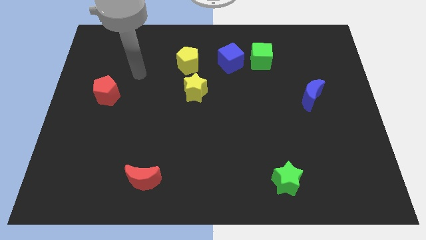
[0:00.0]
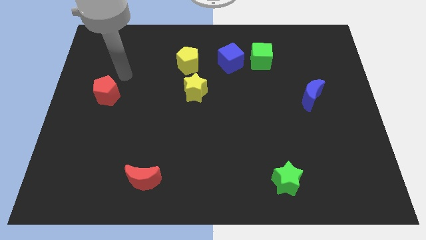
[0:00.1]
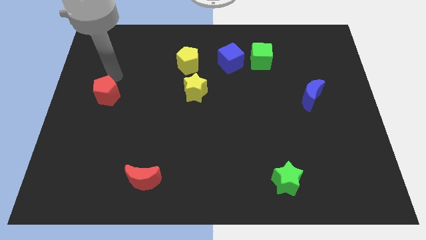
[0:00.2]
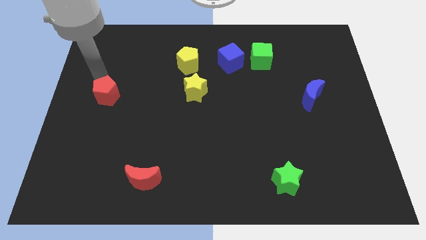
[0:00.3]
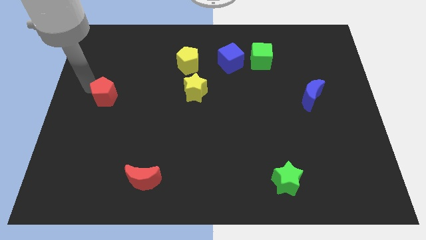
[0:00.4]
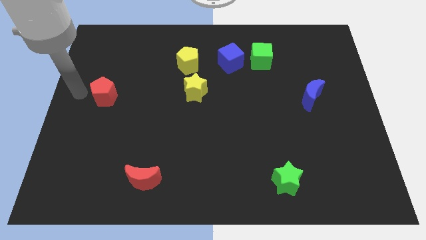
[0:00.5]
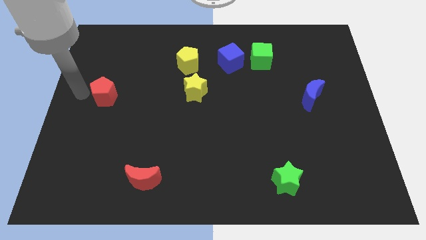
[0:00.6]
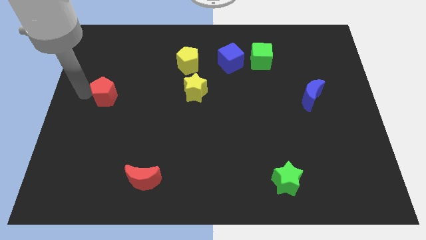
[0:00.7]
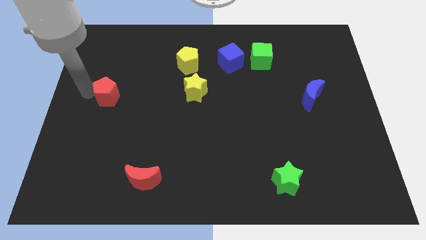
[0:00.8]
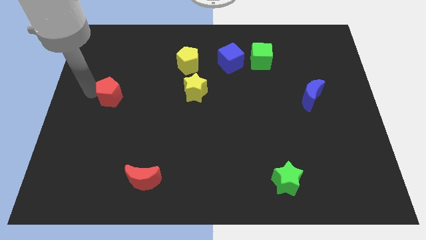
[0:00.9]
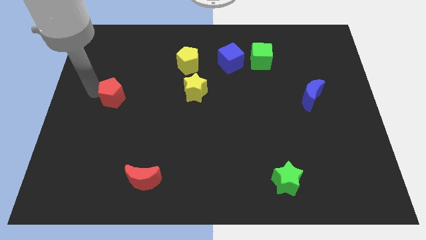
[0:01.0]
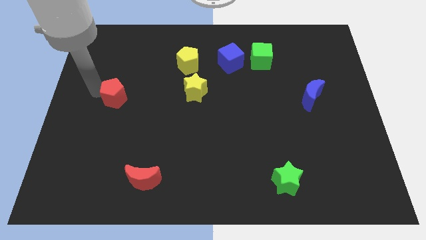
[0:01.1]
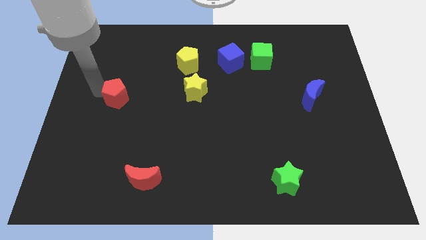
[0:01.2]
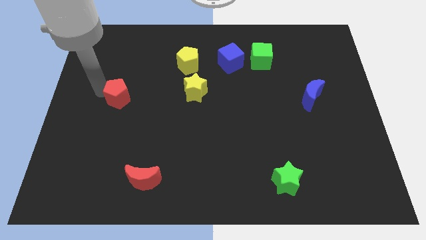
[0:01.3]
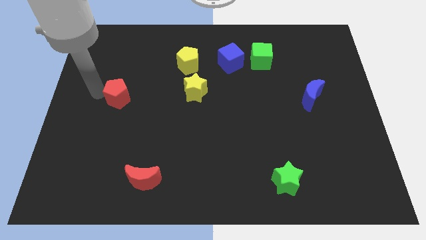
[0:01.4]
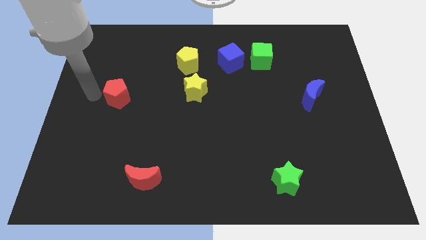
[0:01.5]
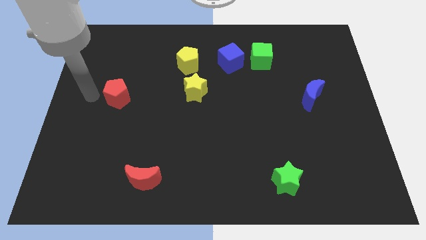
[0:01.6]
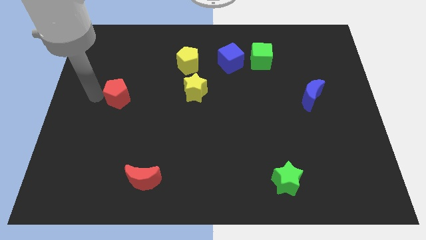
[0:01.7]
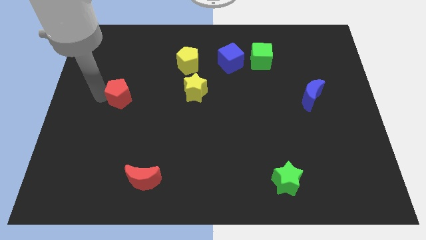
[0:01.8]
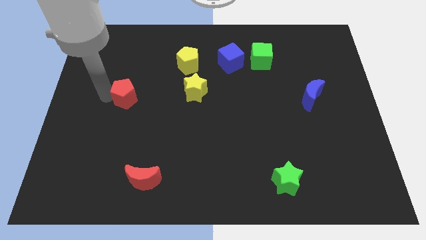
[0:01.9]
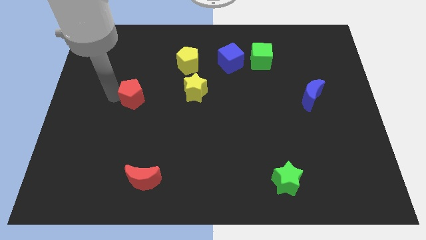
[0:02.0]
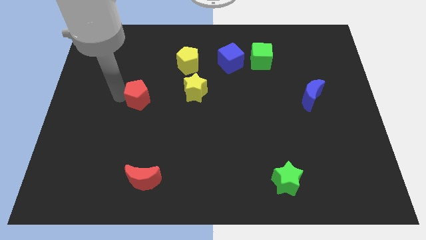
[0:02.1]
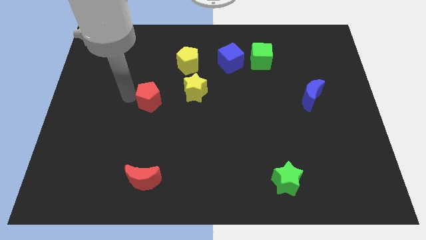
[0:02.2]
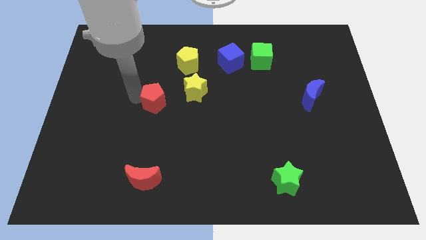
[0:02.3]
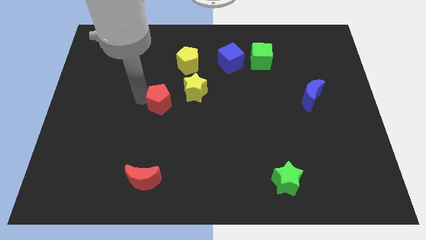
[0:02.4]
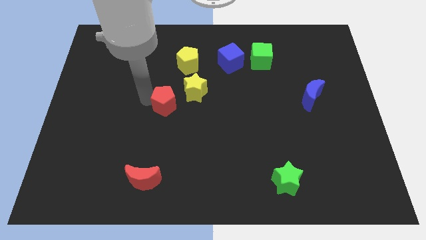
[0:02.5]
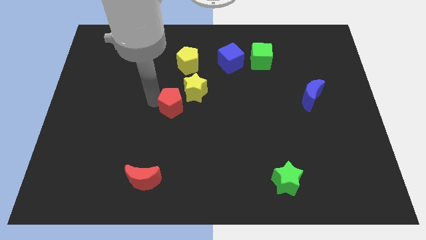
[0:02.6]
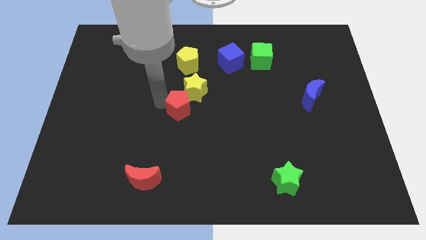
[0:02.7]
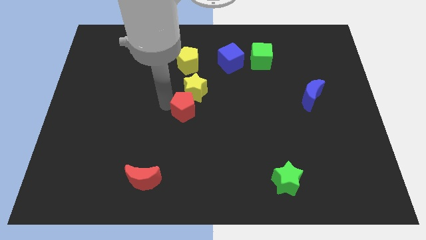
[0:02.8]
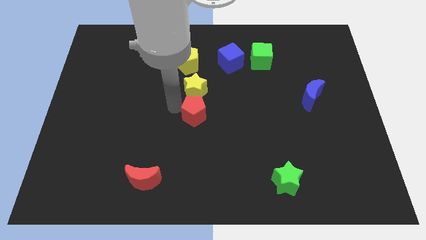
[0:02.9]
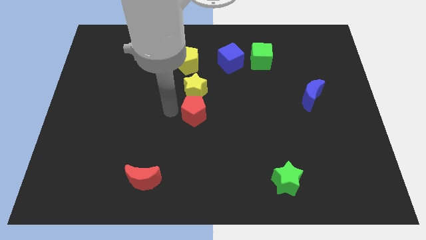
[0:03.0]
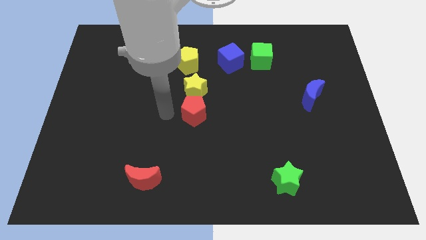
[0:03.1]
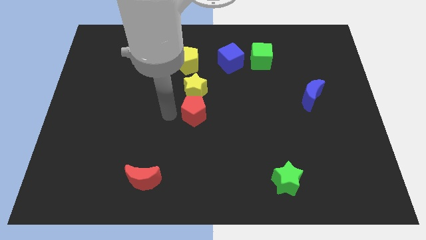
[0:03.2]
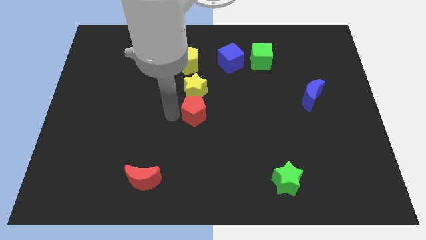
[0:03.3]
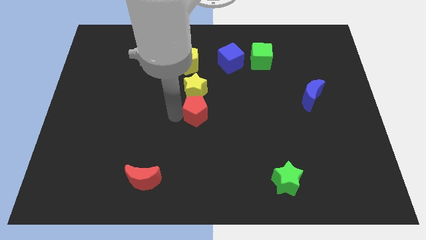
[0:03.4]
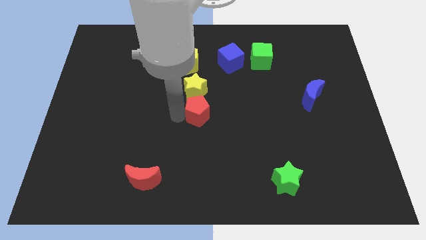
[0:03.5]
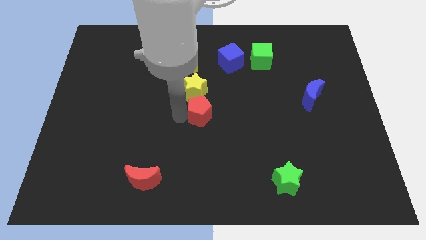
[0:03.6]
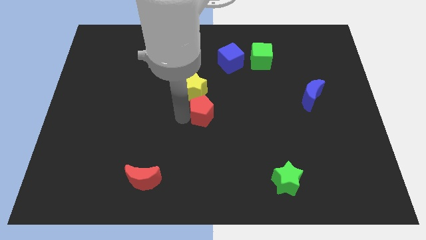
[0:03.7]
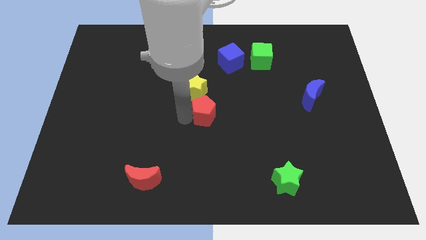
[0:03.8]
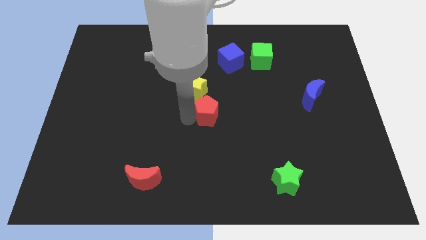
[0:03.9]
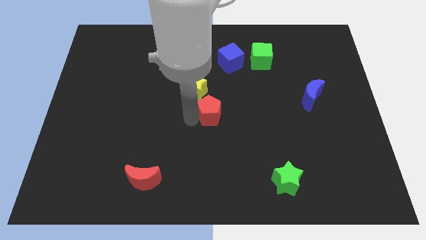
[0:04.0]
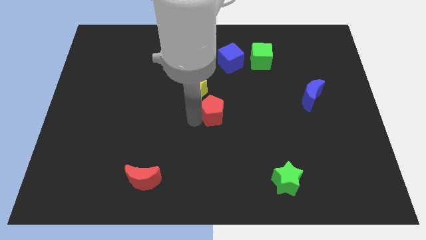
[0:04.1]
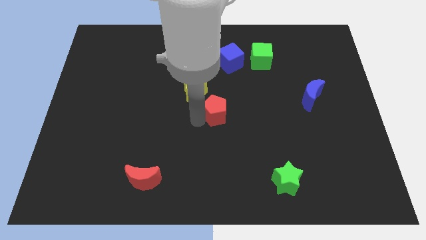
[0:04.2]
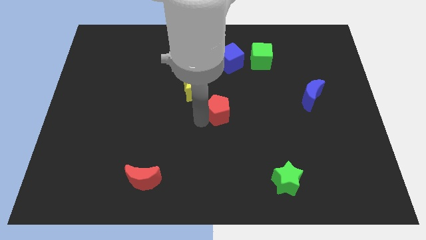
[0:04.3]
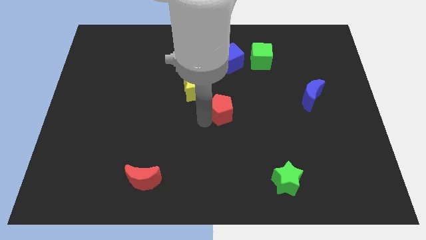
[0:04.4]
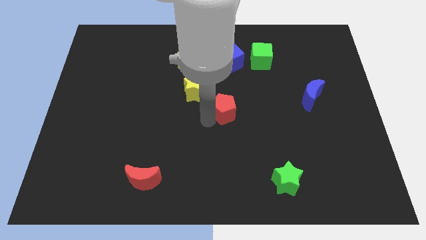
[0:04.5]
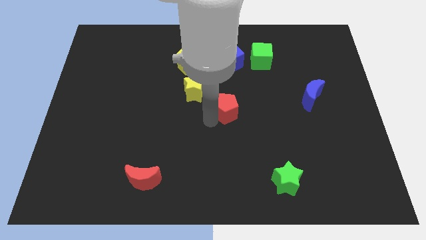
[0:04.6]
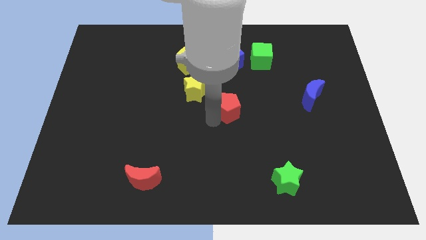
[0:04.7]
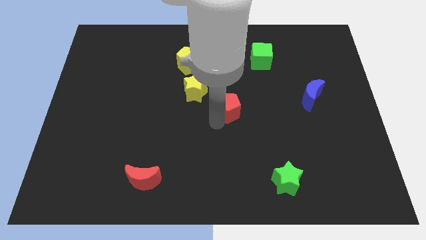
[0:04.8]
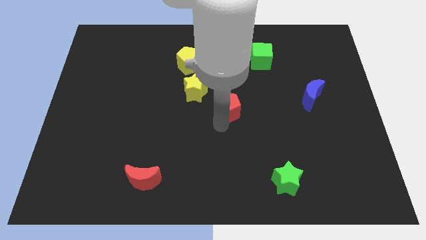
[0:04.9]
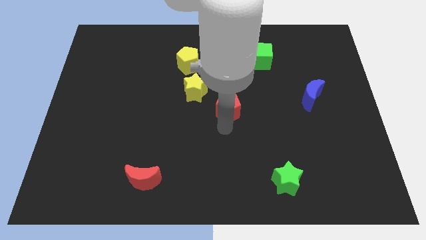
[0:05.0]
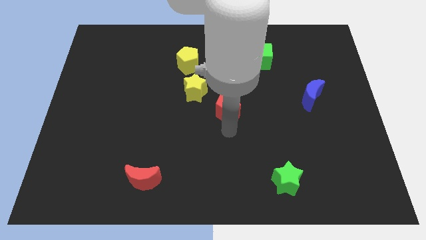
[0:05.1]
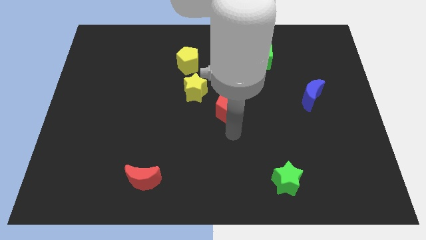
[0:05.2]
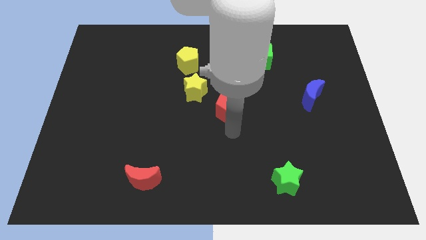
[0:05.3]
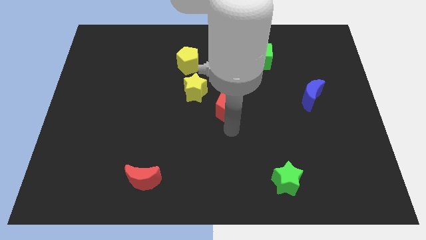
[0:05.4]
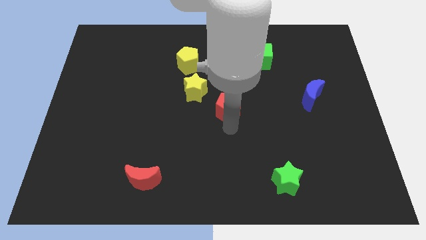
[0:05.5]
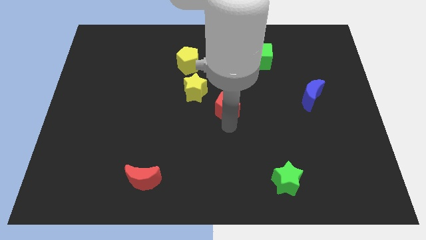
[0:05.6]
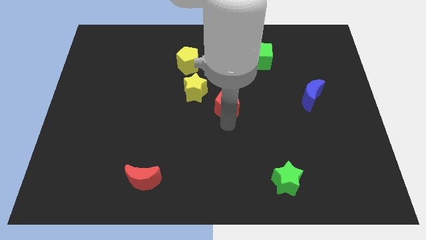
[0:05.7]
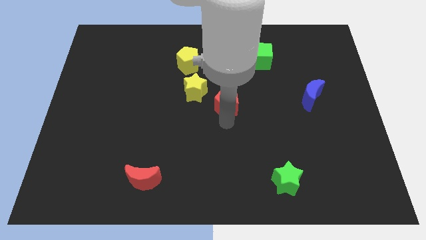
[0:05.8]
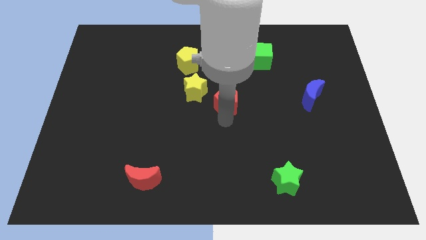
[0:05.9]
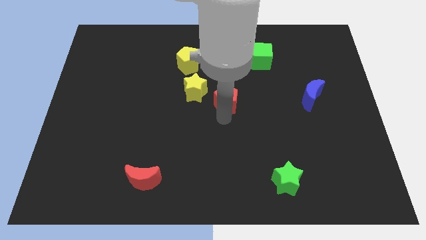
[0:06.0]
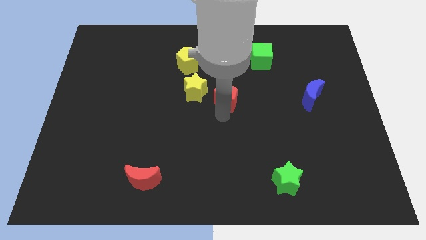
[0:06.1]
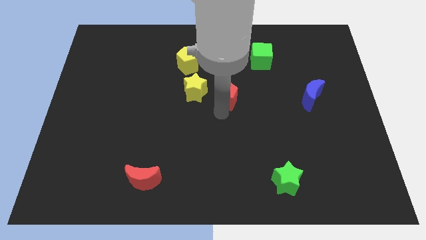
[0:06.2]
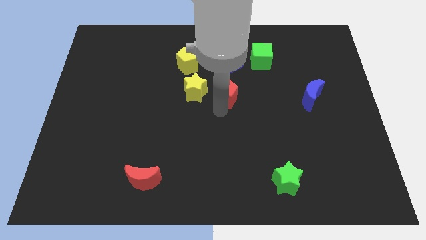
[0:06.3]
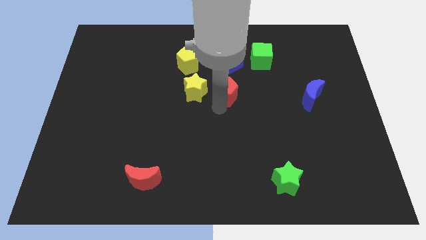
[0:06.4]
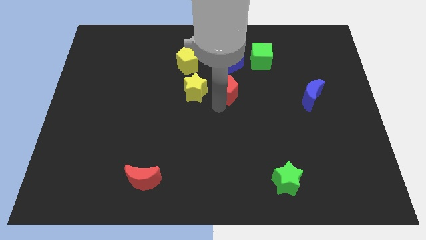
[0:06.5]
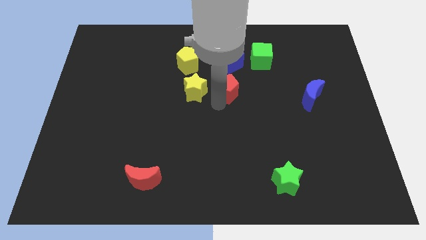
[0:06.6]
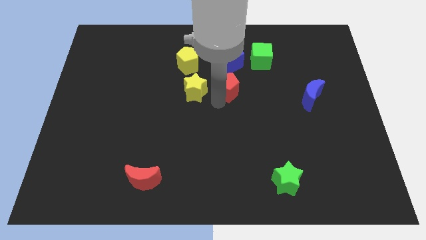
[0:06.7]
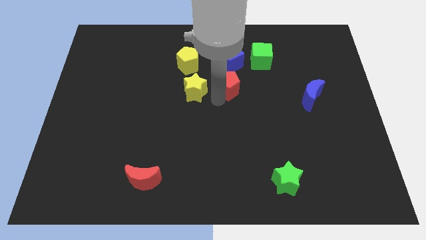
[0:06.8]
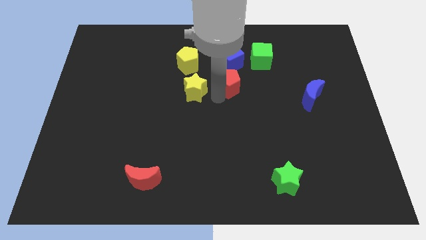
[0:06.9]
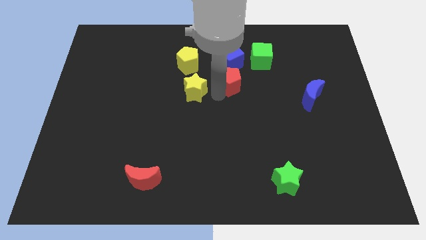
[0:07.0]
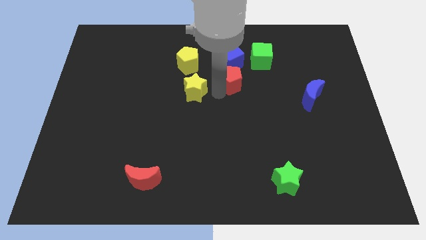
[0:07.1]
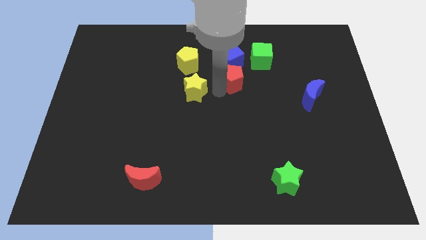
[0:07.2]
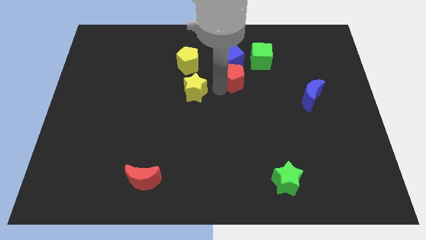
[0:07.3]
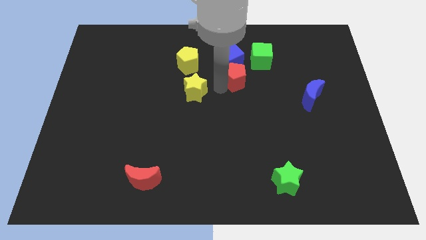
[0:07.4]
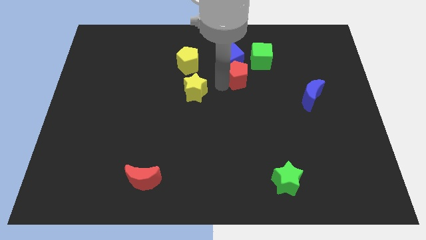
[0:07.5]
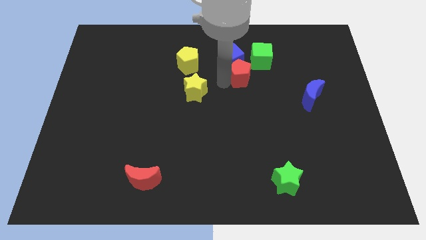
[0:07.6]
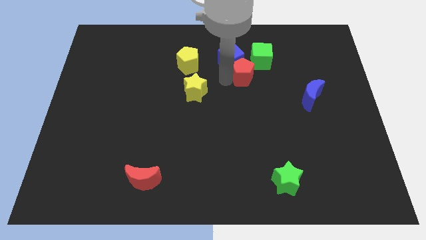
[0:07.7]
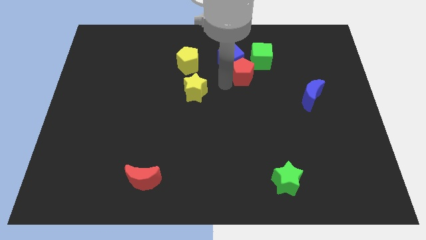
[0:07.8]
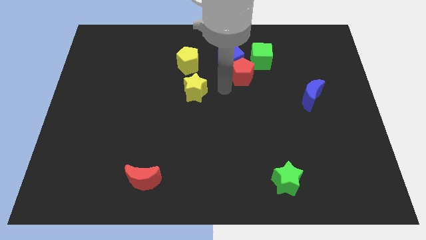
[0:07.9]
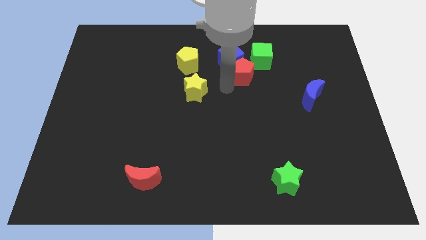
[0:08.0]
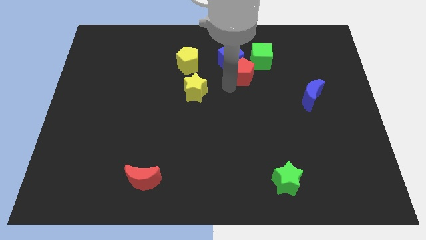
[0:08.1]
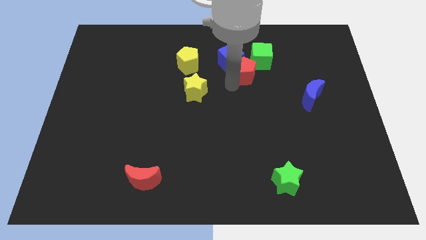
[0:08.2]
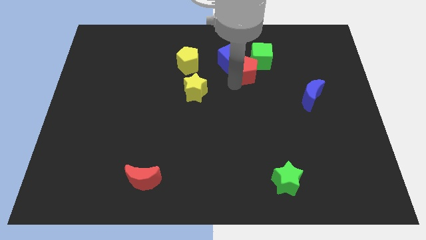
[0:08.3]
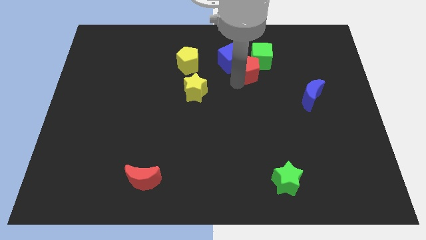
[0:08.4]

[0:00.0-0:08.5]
slide the red pentagon close to the green cube
